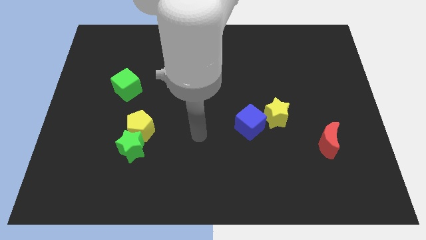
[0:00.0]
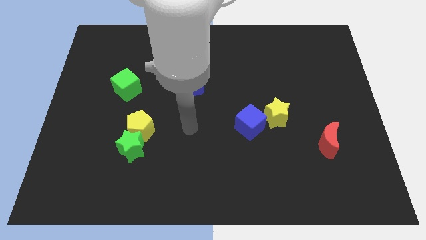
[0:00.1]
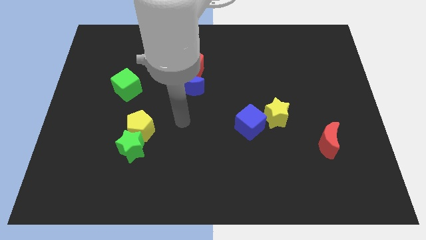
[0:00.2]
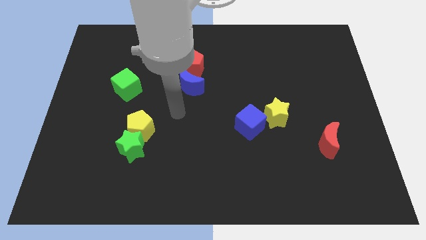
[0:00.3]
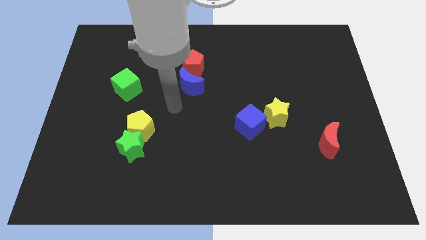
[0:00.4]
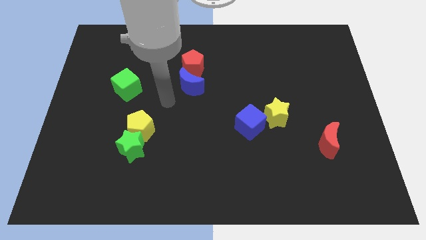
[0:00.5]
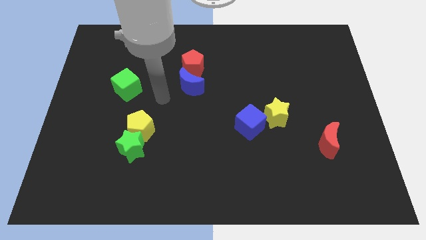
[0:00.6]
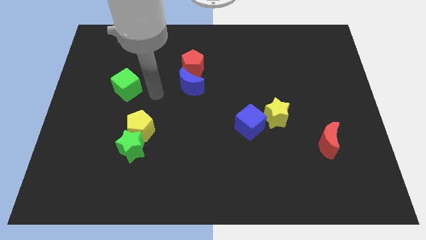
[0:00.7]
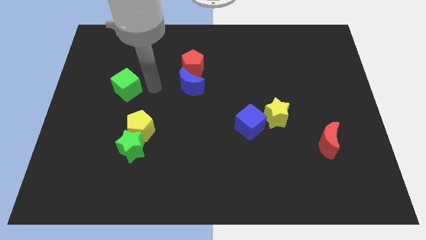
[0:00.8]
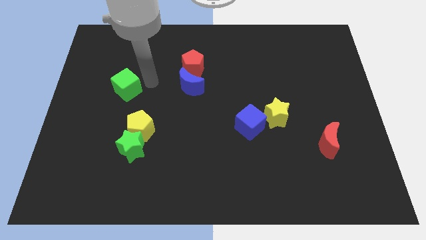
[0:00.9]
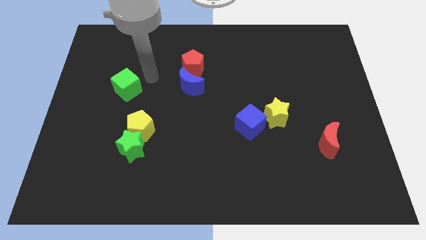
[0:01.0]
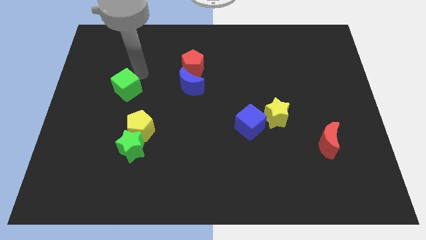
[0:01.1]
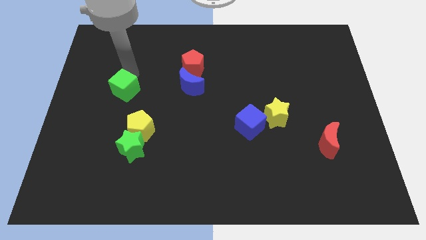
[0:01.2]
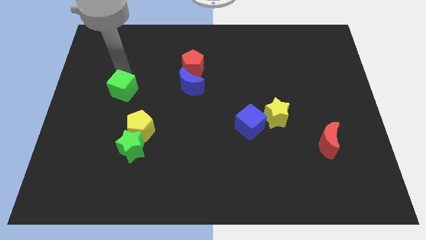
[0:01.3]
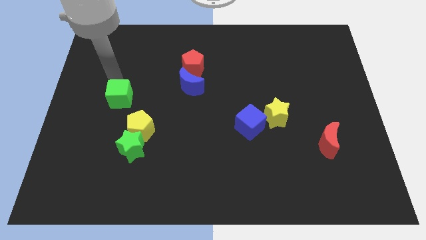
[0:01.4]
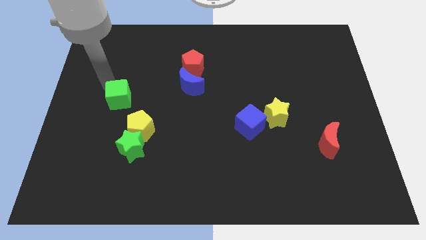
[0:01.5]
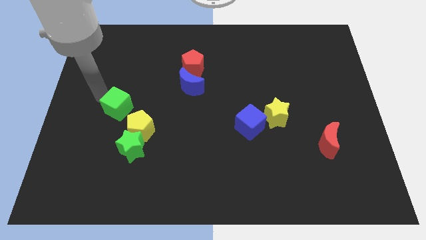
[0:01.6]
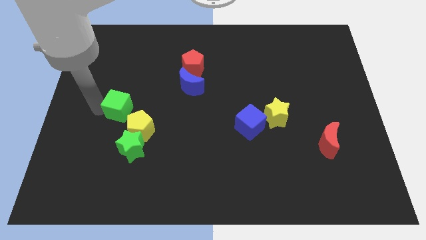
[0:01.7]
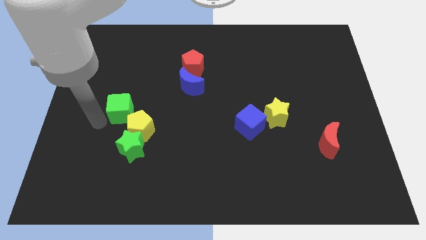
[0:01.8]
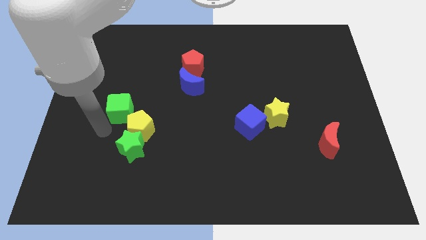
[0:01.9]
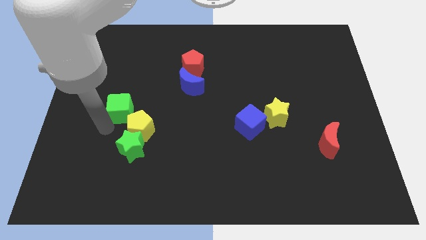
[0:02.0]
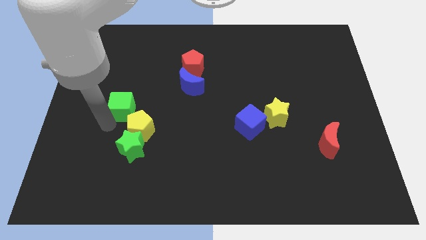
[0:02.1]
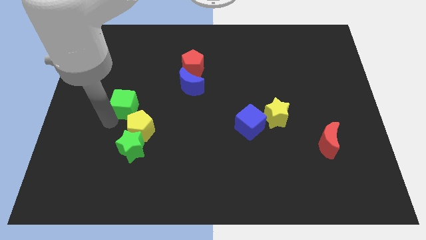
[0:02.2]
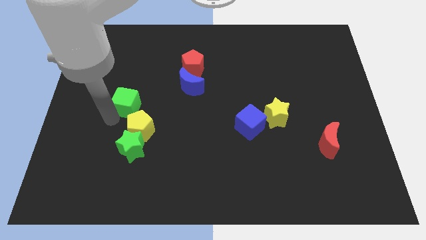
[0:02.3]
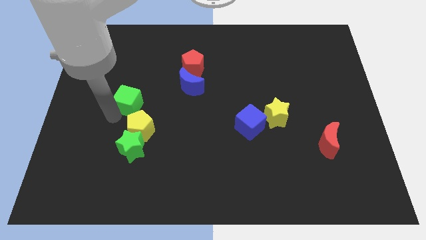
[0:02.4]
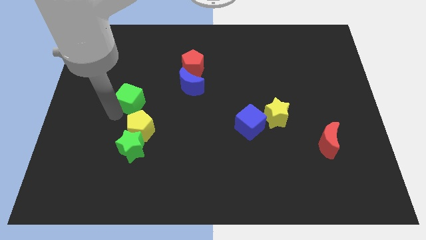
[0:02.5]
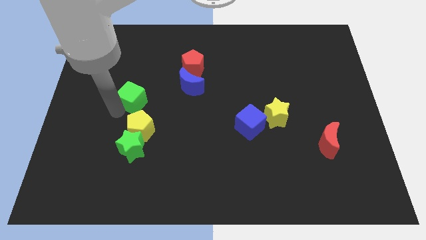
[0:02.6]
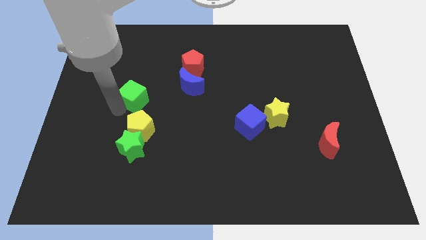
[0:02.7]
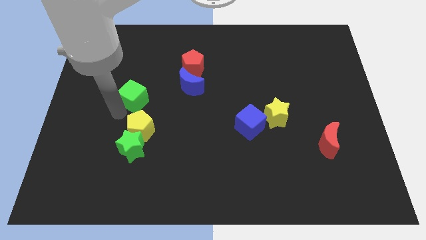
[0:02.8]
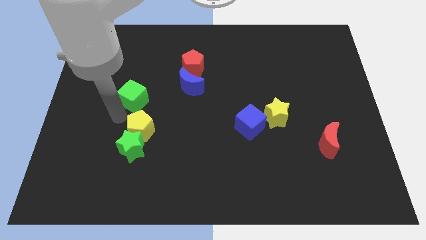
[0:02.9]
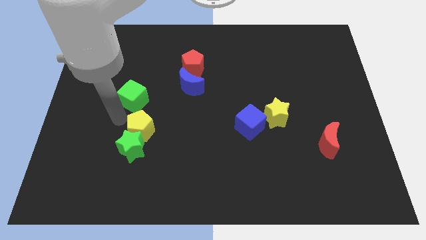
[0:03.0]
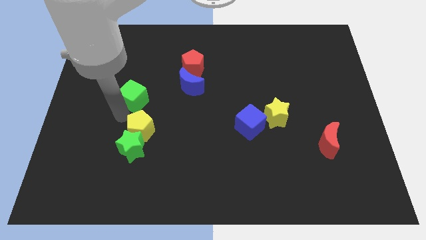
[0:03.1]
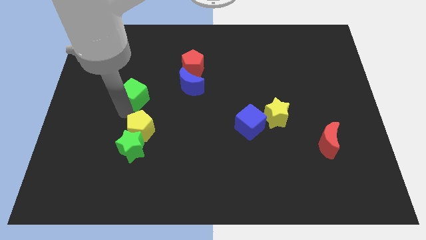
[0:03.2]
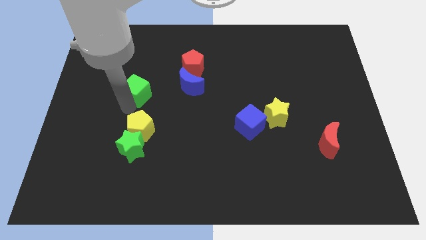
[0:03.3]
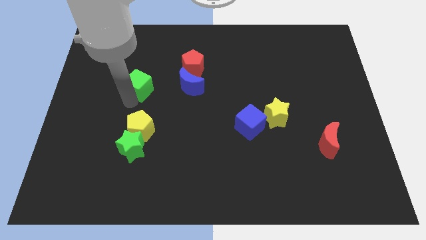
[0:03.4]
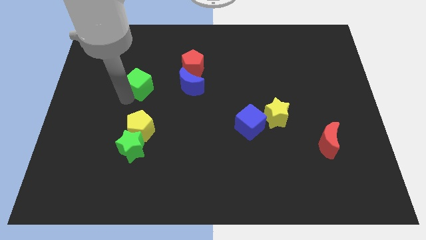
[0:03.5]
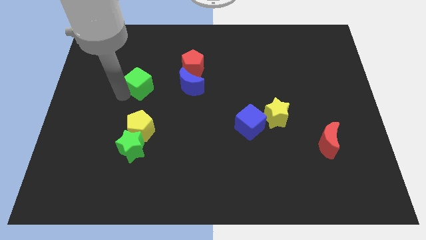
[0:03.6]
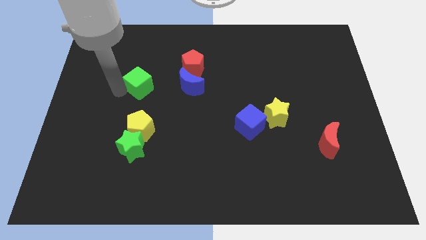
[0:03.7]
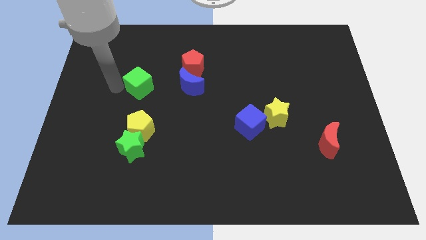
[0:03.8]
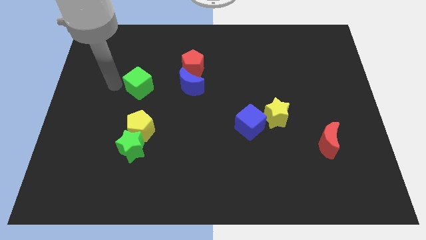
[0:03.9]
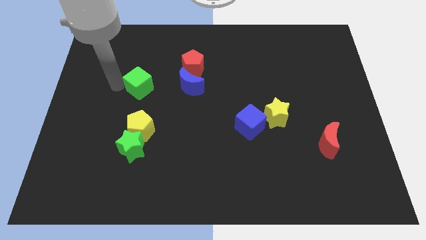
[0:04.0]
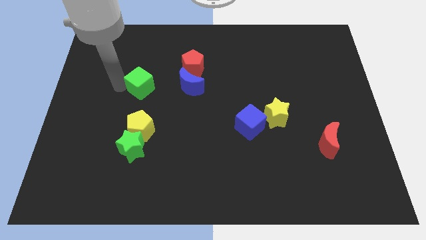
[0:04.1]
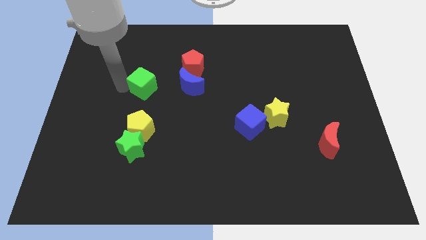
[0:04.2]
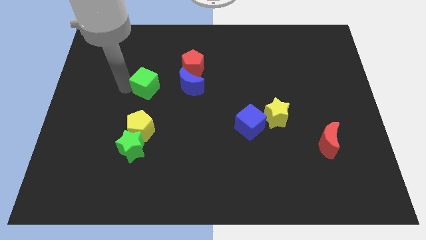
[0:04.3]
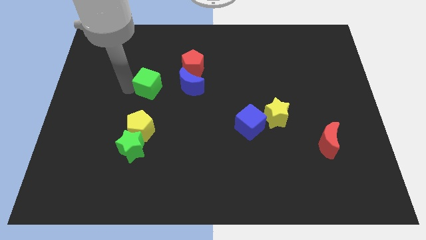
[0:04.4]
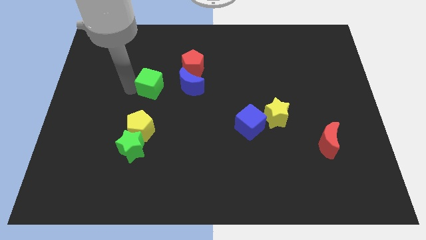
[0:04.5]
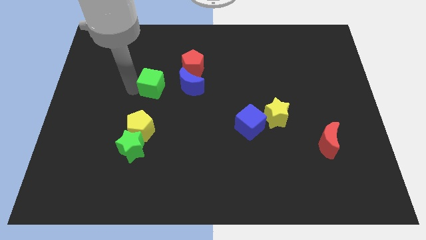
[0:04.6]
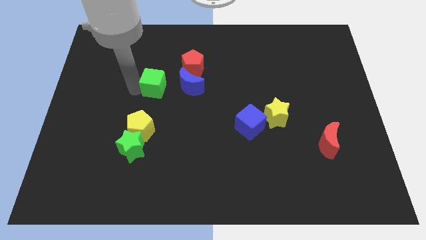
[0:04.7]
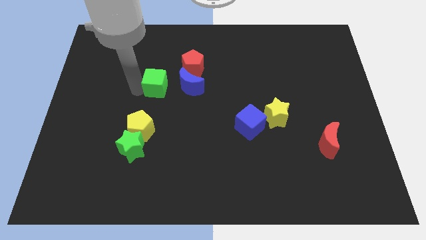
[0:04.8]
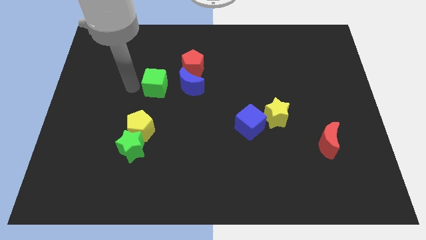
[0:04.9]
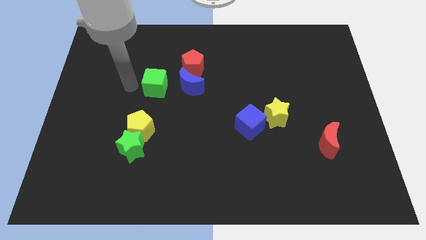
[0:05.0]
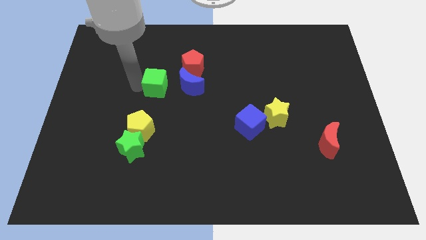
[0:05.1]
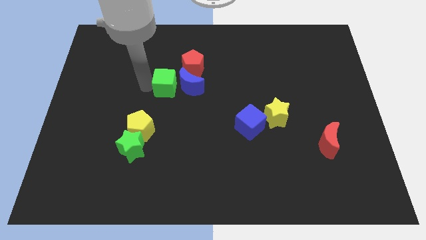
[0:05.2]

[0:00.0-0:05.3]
slide the green cube next to the blue moon

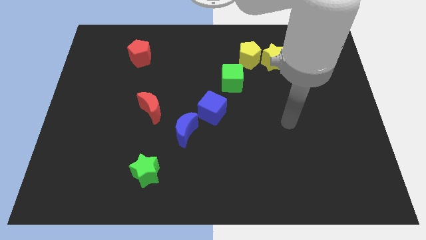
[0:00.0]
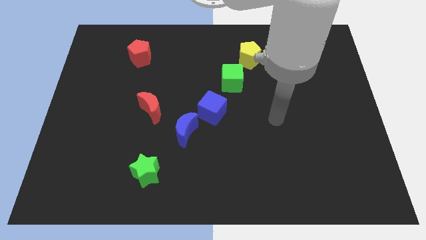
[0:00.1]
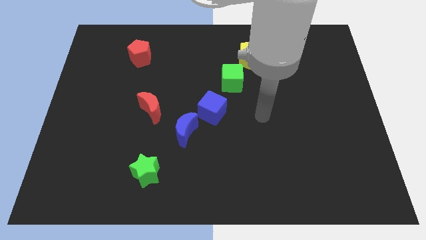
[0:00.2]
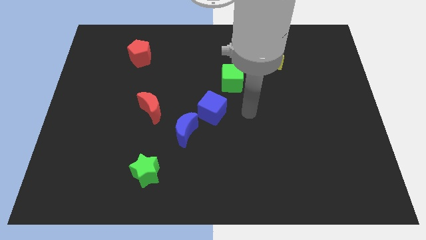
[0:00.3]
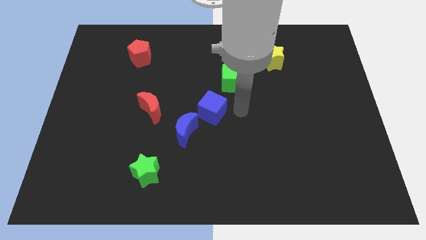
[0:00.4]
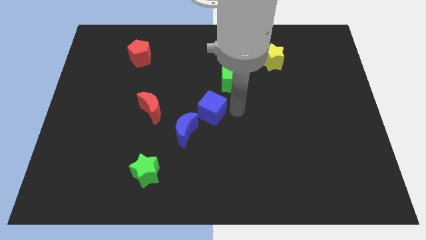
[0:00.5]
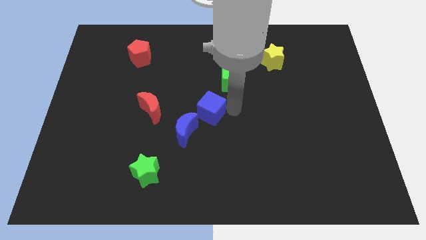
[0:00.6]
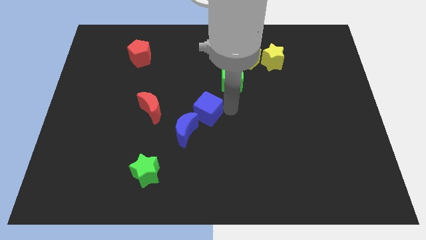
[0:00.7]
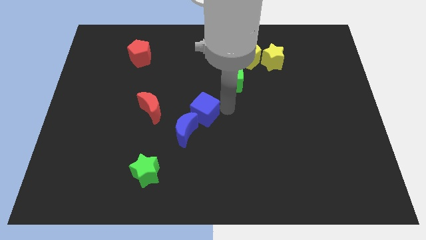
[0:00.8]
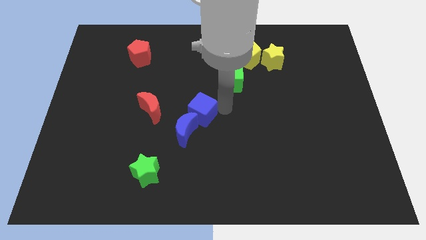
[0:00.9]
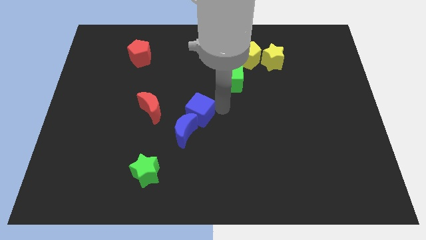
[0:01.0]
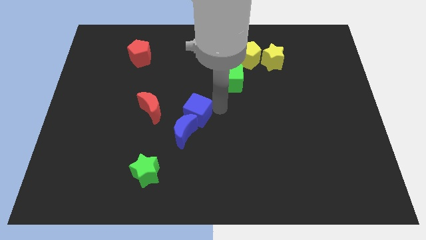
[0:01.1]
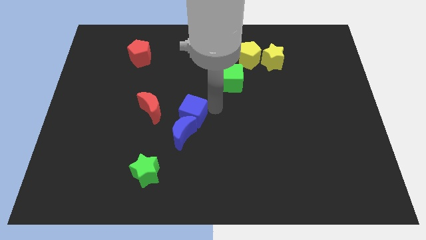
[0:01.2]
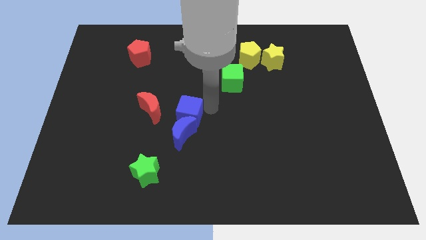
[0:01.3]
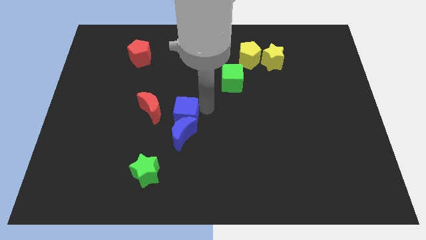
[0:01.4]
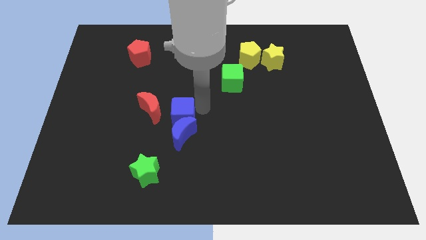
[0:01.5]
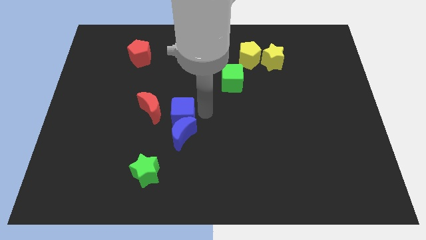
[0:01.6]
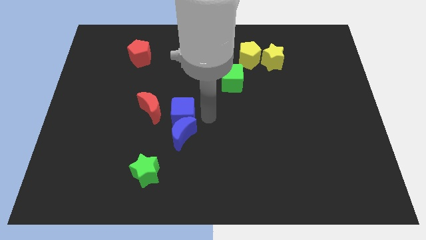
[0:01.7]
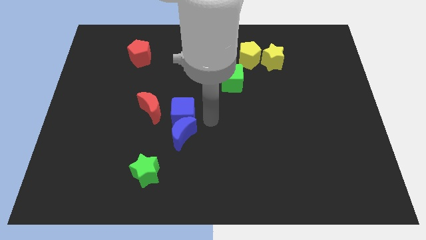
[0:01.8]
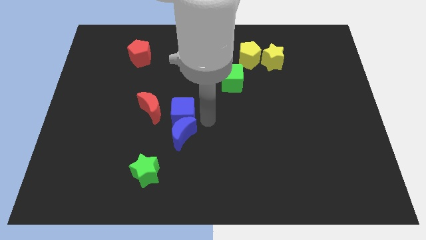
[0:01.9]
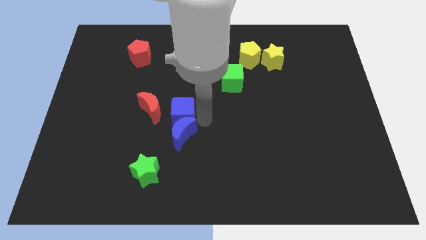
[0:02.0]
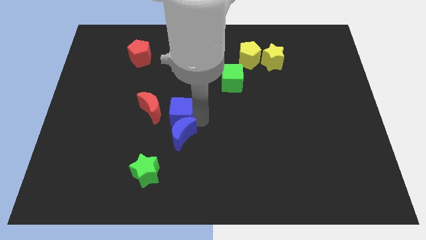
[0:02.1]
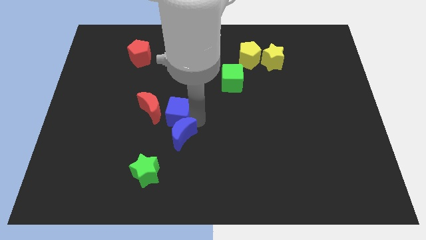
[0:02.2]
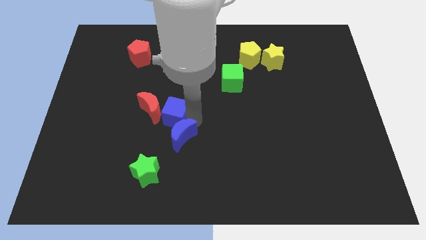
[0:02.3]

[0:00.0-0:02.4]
put the blue cube close to the red moon
